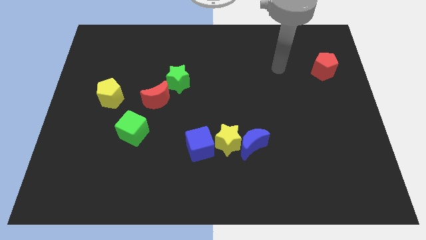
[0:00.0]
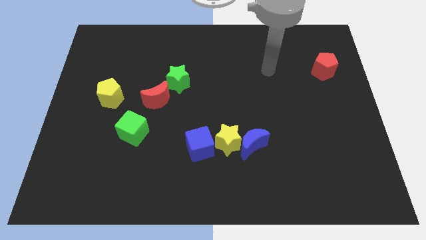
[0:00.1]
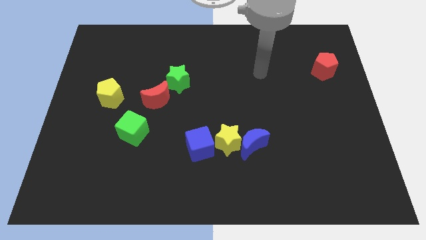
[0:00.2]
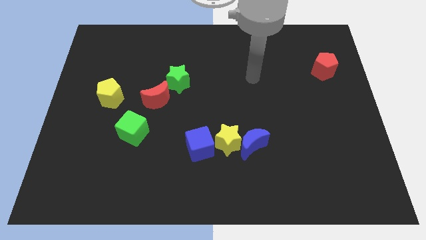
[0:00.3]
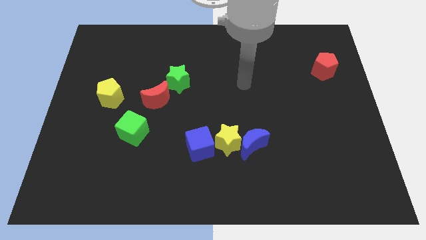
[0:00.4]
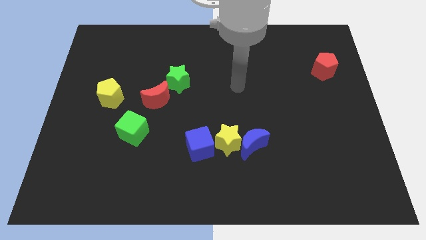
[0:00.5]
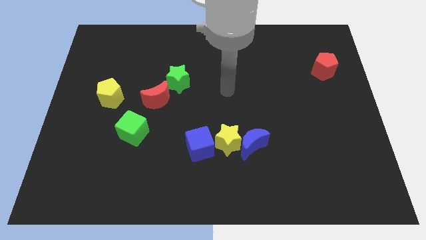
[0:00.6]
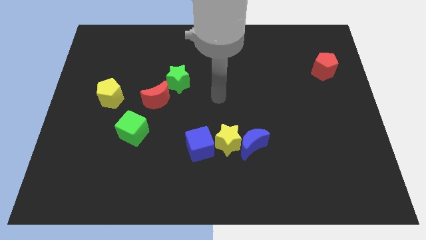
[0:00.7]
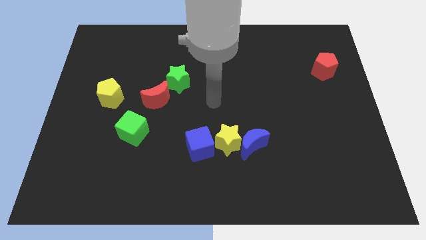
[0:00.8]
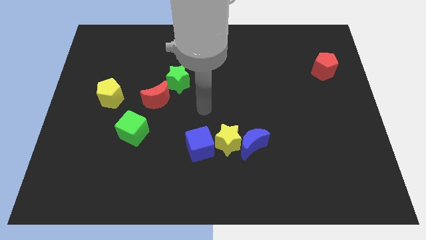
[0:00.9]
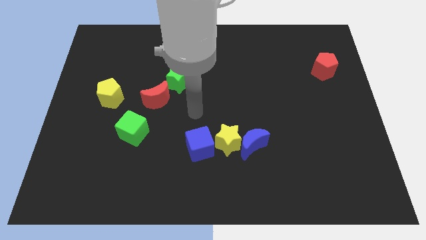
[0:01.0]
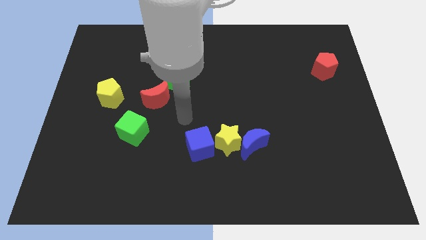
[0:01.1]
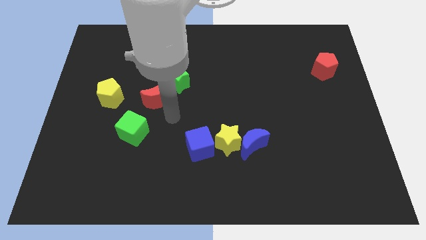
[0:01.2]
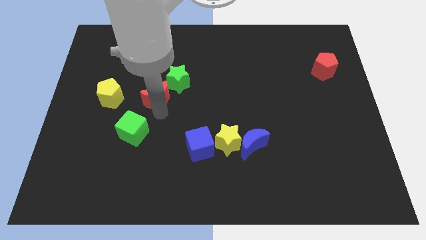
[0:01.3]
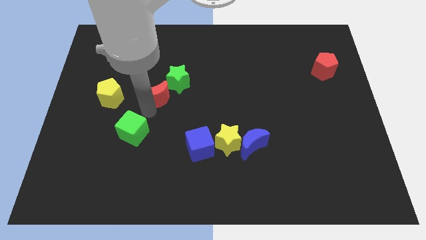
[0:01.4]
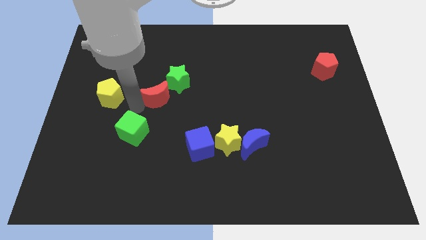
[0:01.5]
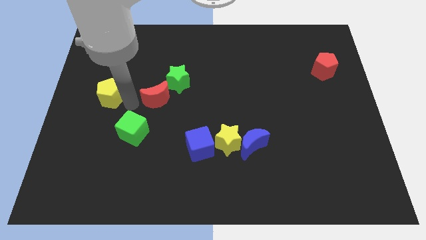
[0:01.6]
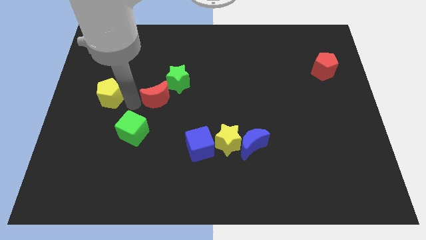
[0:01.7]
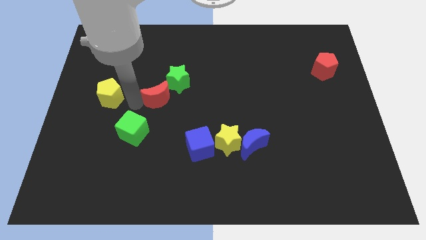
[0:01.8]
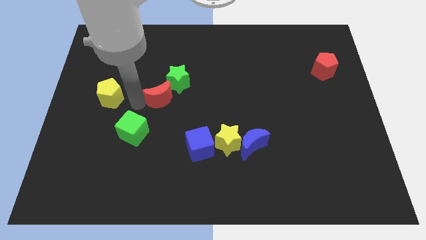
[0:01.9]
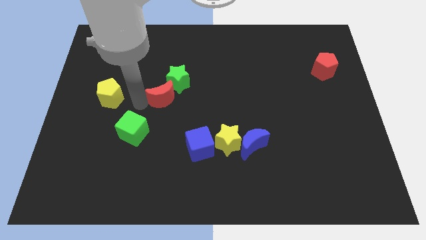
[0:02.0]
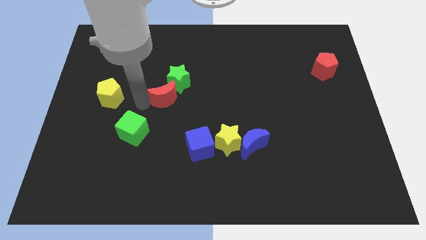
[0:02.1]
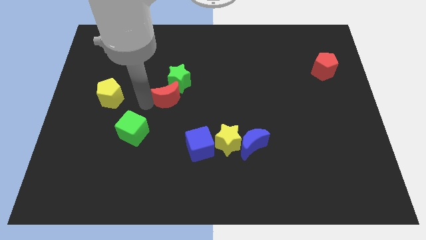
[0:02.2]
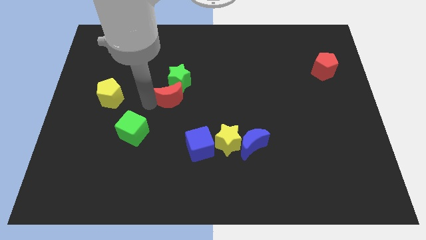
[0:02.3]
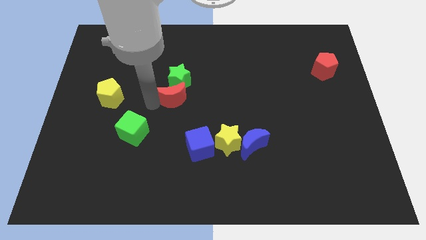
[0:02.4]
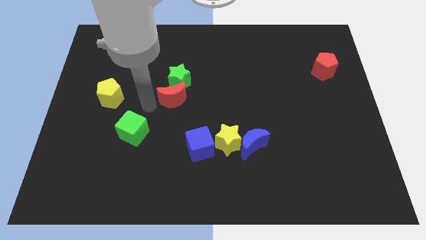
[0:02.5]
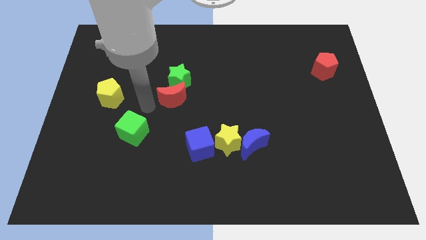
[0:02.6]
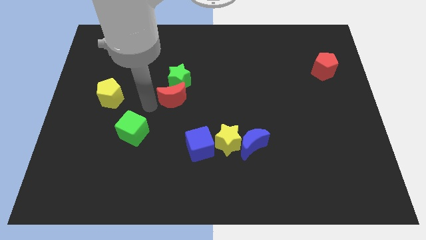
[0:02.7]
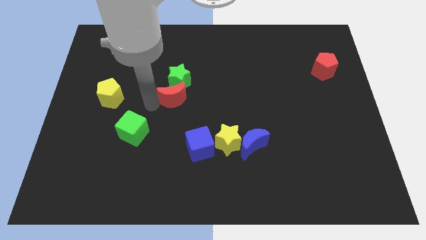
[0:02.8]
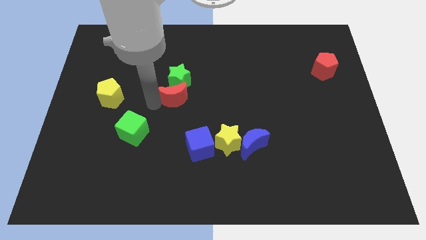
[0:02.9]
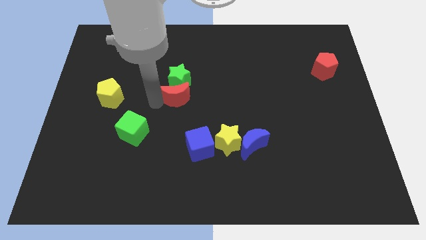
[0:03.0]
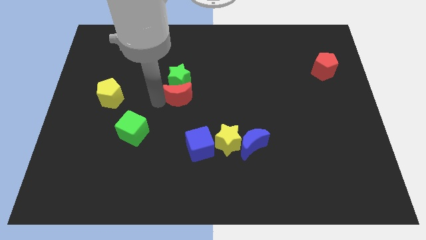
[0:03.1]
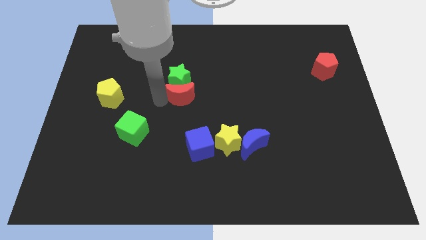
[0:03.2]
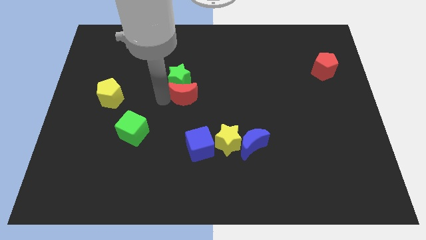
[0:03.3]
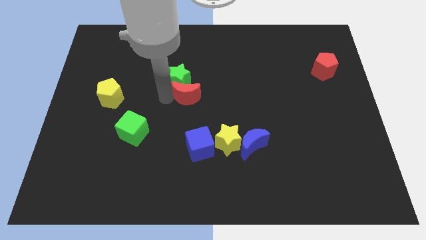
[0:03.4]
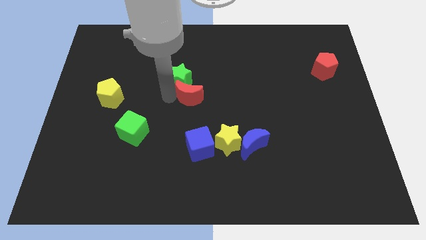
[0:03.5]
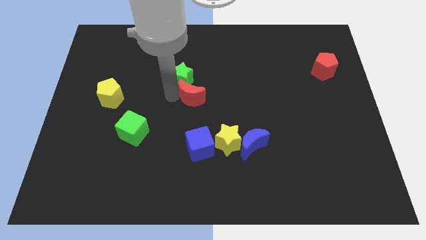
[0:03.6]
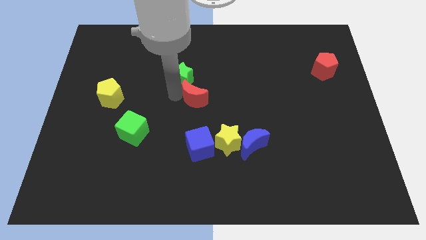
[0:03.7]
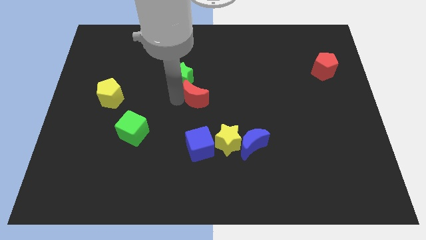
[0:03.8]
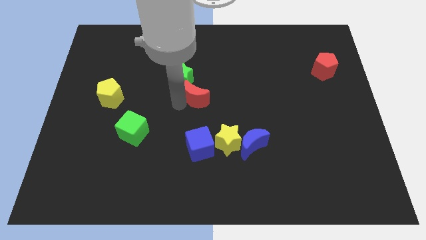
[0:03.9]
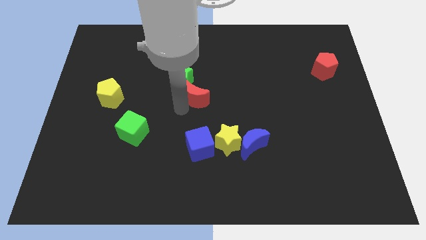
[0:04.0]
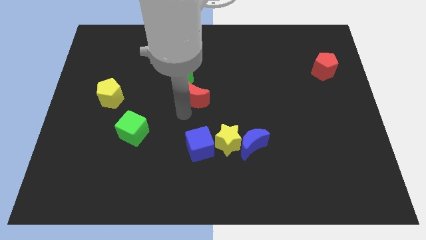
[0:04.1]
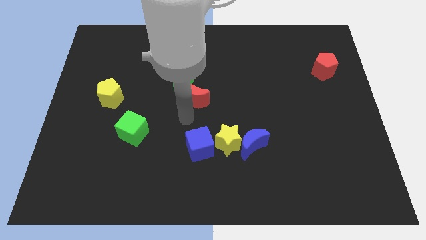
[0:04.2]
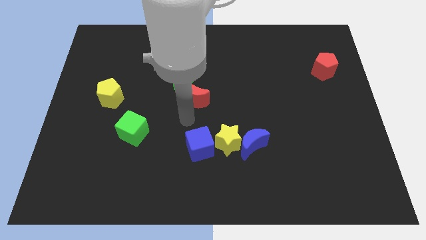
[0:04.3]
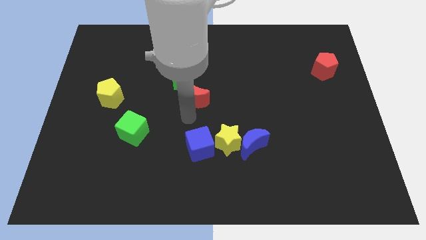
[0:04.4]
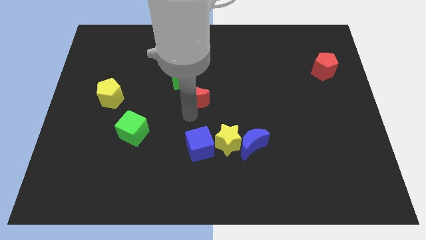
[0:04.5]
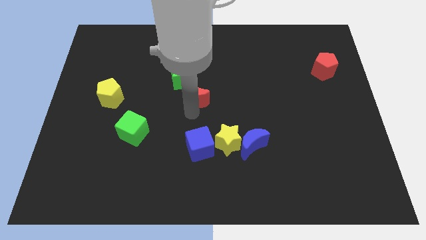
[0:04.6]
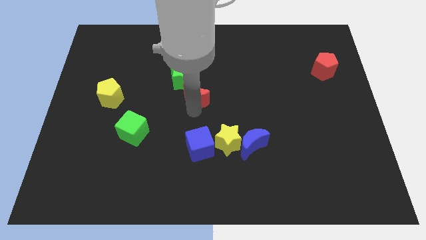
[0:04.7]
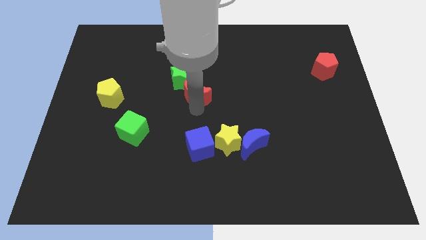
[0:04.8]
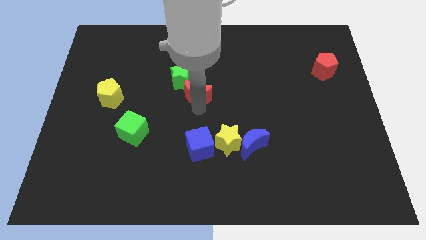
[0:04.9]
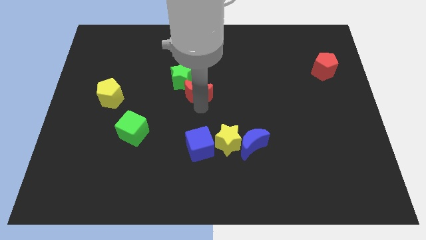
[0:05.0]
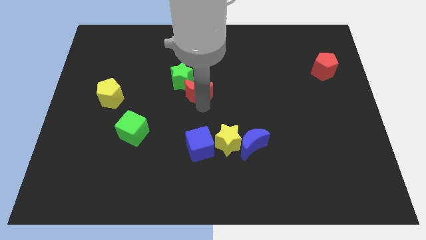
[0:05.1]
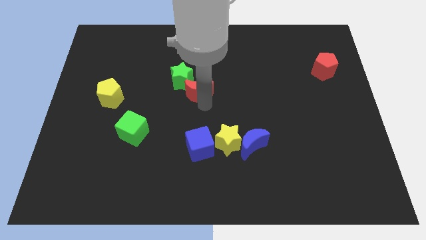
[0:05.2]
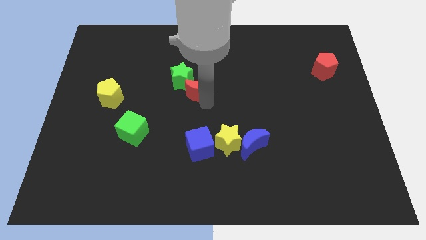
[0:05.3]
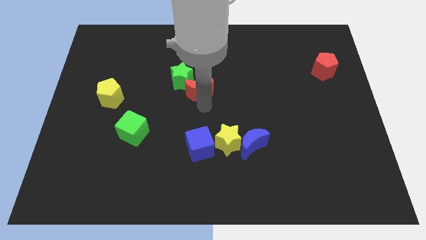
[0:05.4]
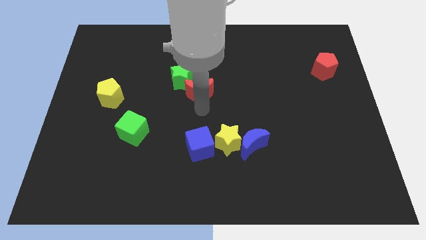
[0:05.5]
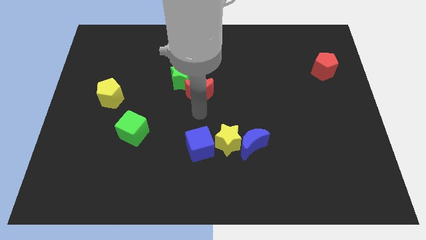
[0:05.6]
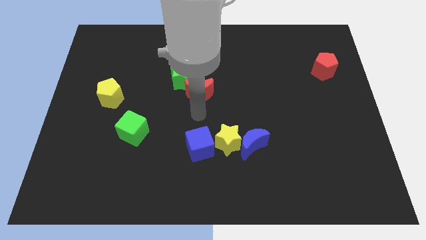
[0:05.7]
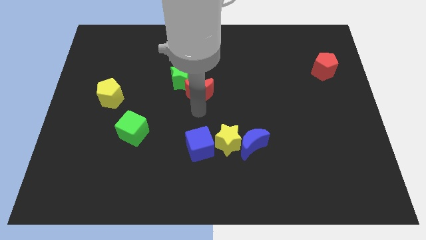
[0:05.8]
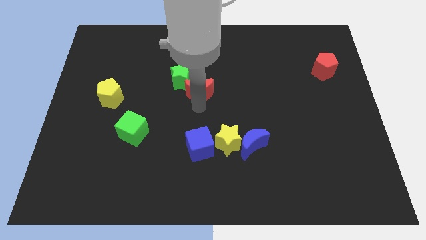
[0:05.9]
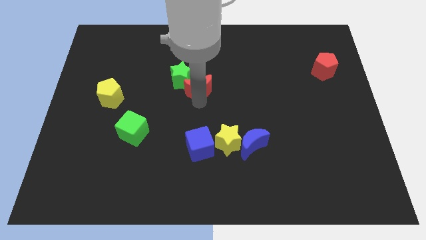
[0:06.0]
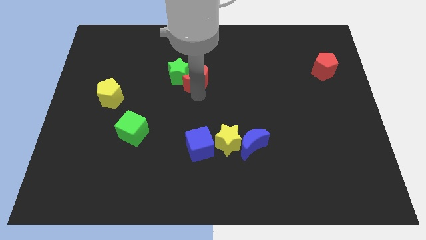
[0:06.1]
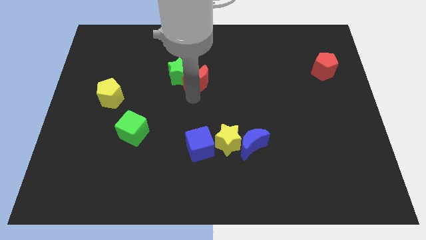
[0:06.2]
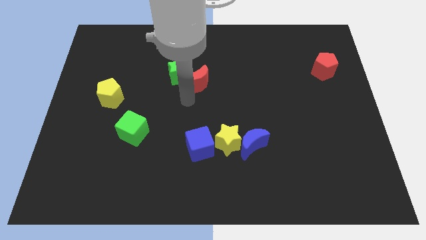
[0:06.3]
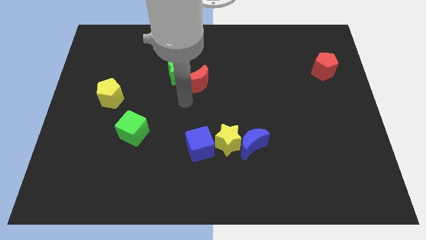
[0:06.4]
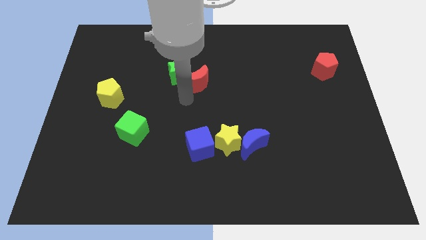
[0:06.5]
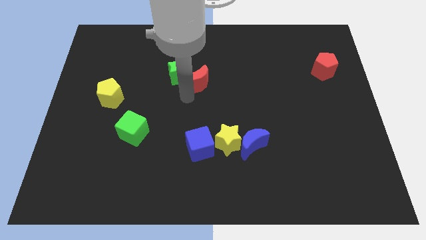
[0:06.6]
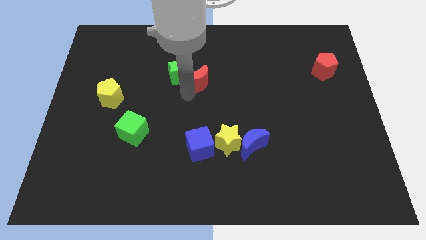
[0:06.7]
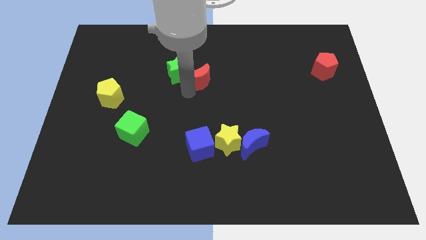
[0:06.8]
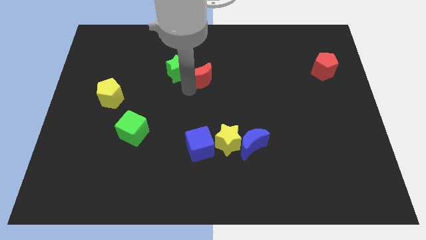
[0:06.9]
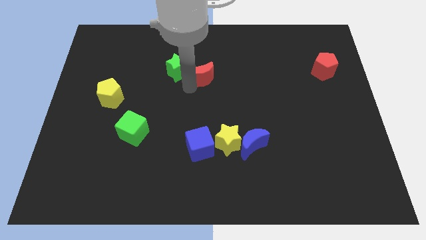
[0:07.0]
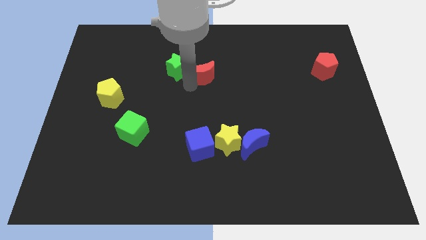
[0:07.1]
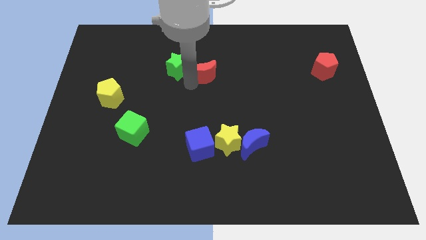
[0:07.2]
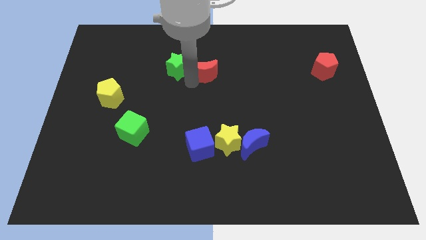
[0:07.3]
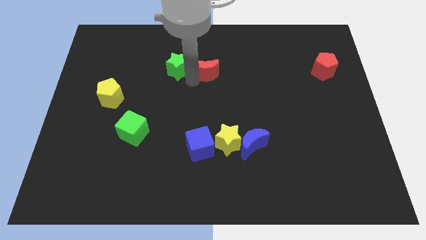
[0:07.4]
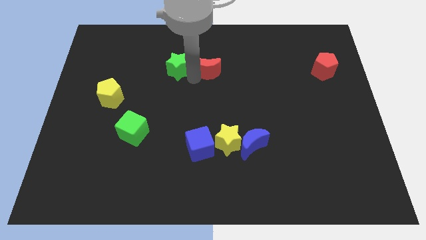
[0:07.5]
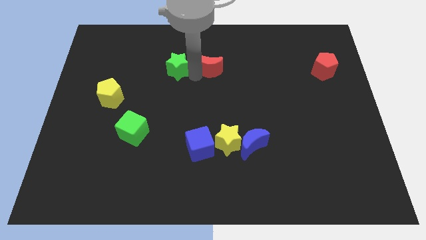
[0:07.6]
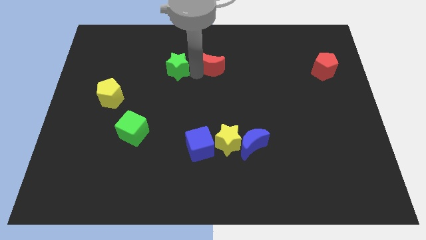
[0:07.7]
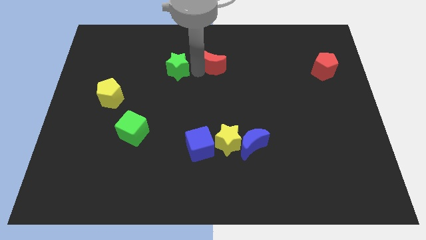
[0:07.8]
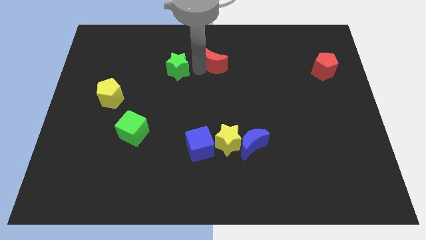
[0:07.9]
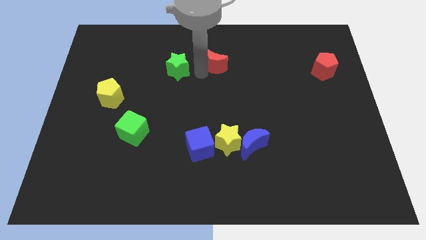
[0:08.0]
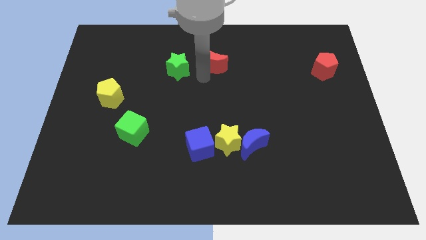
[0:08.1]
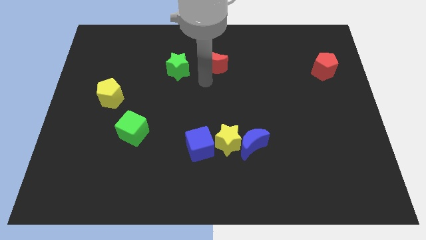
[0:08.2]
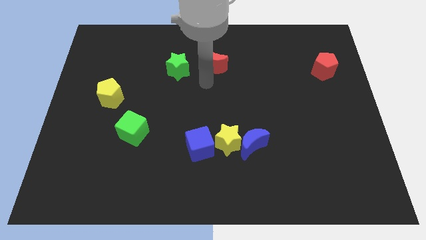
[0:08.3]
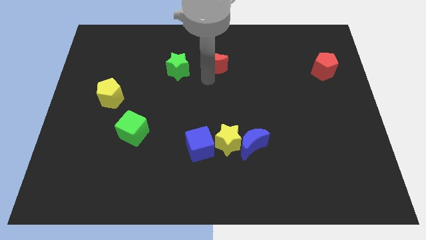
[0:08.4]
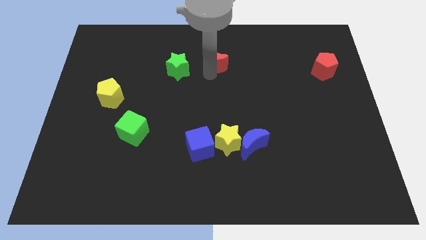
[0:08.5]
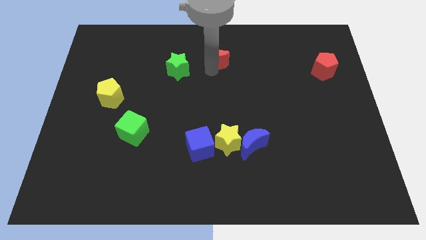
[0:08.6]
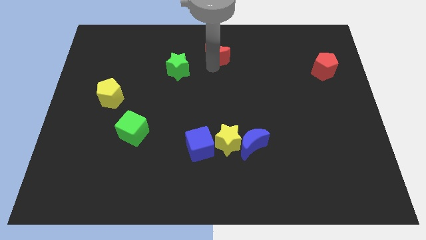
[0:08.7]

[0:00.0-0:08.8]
push the red moon to the top side
